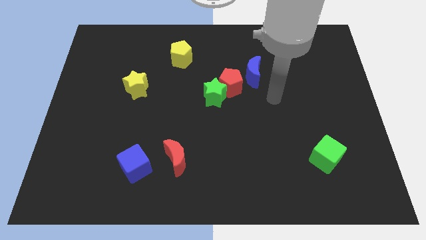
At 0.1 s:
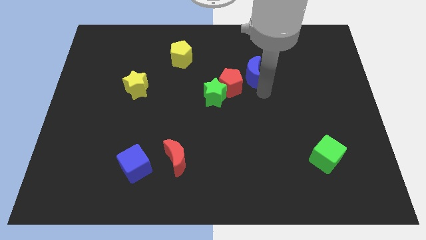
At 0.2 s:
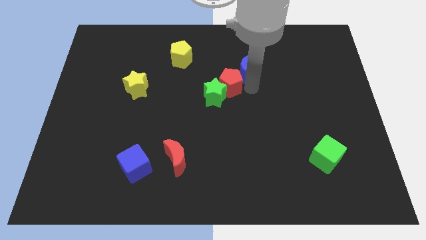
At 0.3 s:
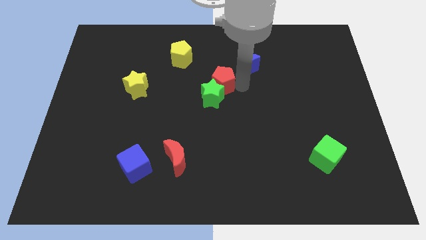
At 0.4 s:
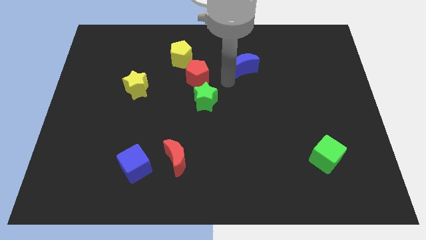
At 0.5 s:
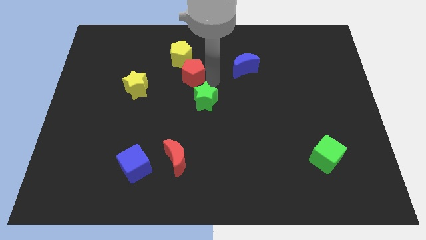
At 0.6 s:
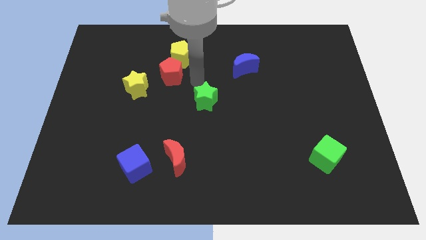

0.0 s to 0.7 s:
separate the green star from the red pentagon

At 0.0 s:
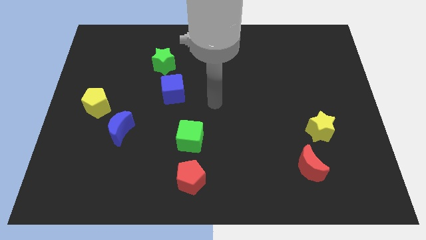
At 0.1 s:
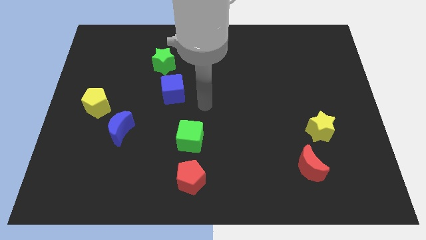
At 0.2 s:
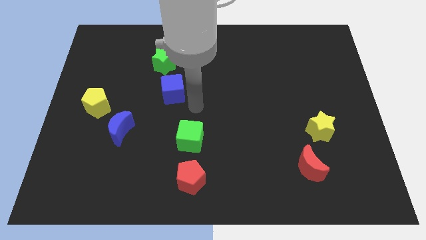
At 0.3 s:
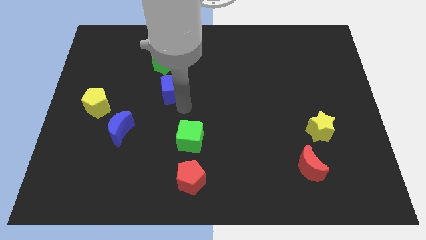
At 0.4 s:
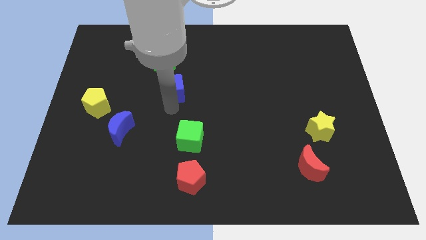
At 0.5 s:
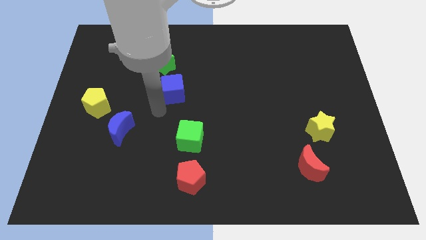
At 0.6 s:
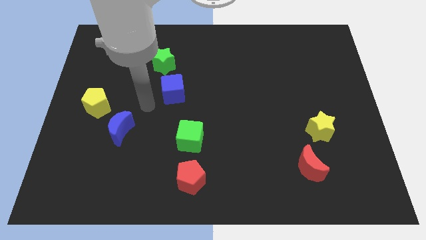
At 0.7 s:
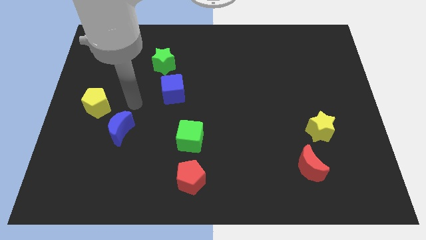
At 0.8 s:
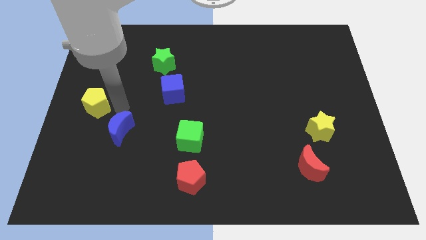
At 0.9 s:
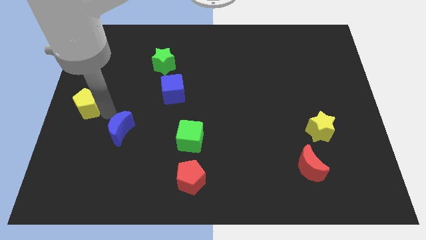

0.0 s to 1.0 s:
pull the blue moon apart from the yellow pentagon

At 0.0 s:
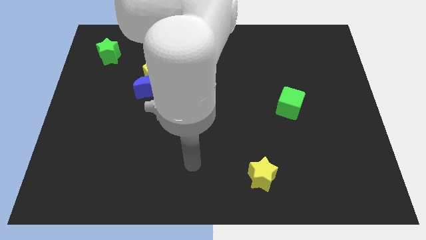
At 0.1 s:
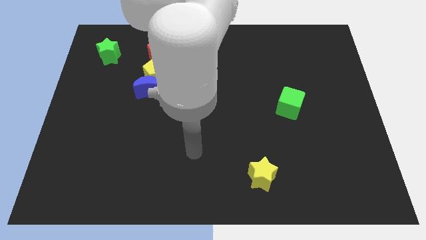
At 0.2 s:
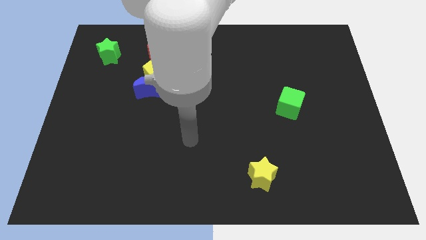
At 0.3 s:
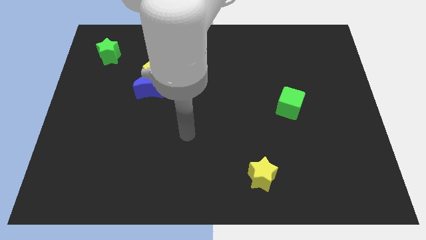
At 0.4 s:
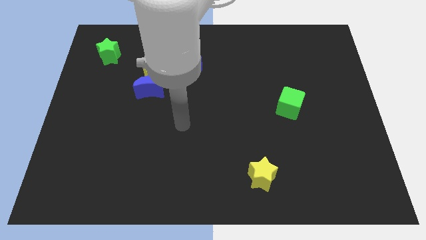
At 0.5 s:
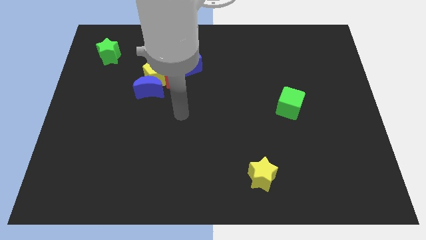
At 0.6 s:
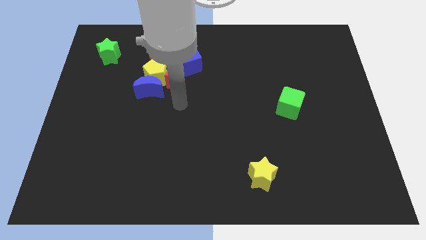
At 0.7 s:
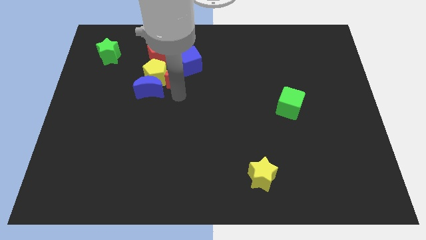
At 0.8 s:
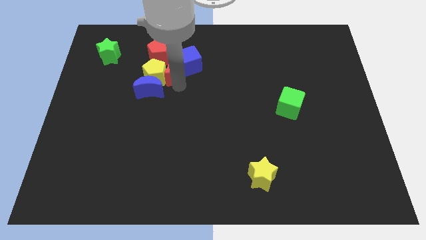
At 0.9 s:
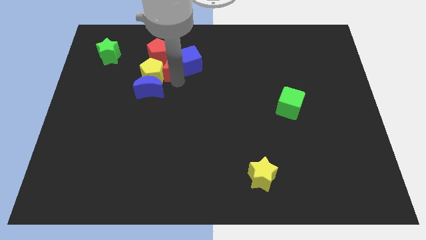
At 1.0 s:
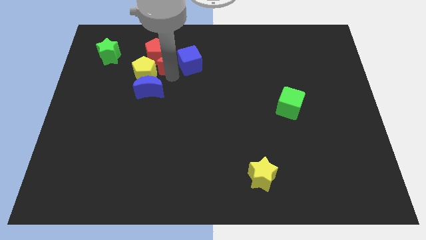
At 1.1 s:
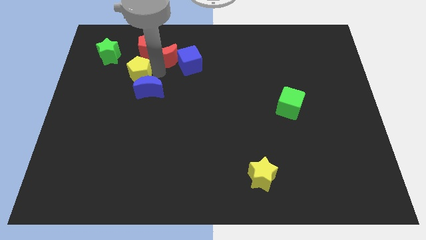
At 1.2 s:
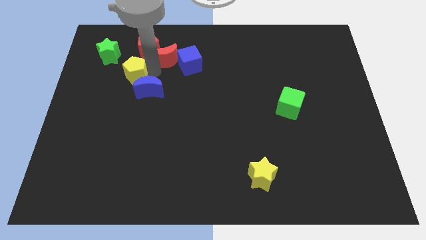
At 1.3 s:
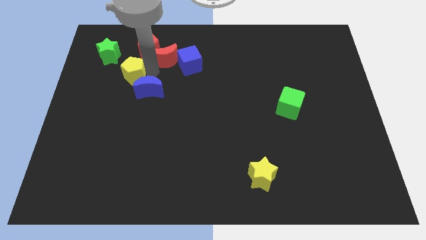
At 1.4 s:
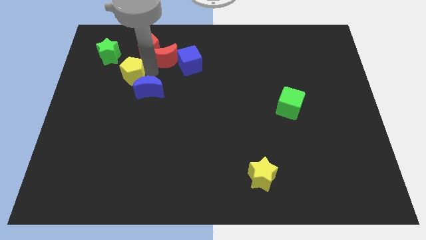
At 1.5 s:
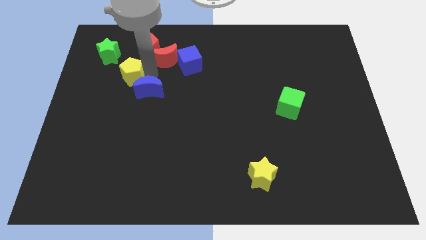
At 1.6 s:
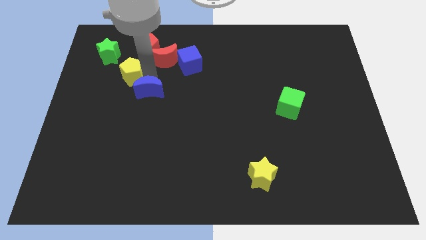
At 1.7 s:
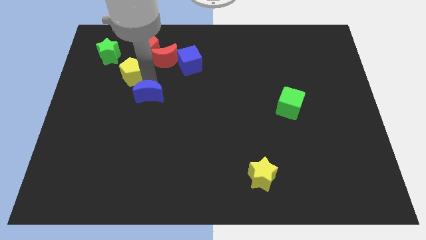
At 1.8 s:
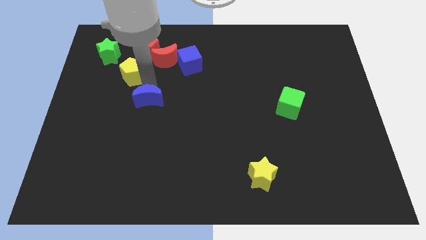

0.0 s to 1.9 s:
move the blue moon away from the yellow pentagon and red moon

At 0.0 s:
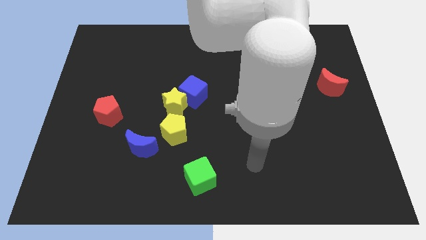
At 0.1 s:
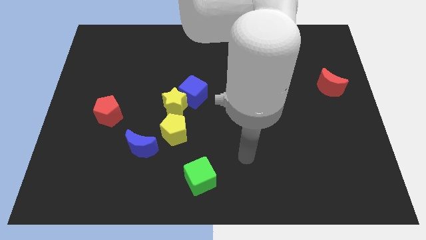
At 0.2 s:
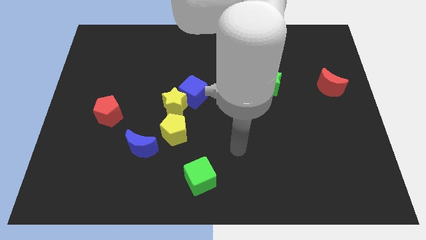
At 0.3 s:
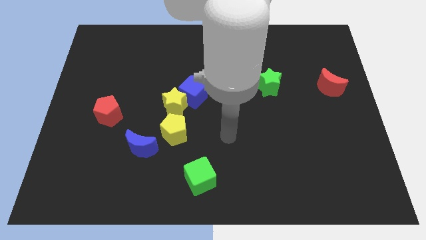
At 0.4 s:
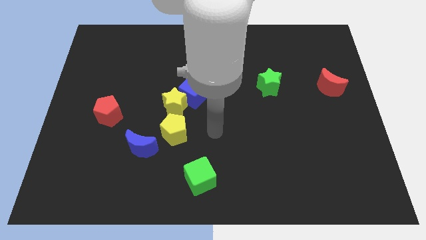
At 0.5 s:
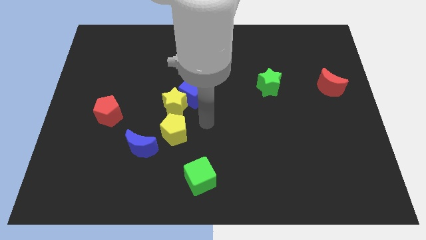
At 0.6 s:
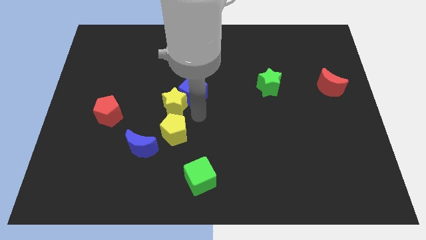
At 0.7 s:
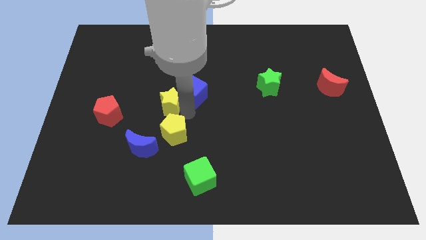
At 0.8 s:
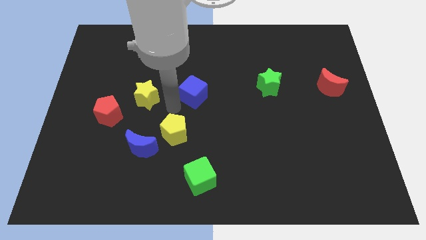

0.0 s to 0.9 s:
pull the blue cube apart from the yellow star

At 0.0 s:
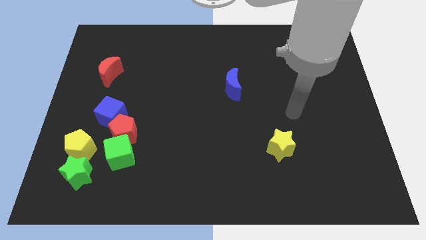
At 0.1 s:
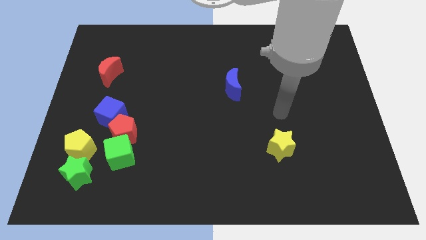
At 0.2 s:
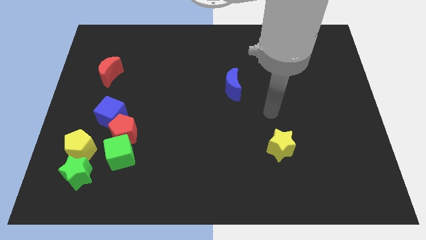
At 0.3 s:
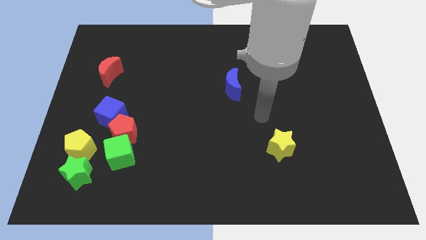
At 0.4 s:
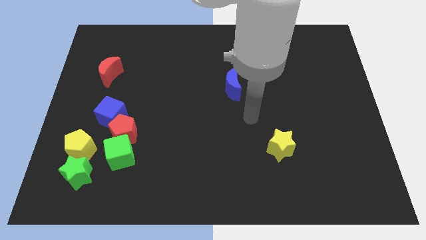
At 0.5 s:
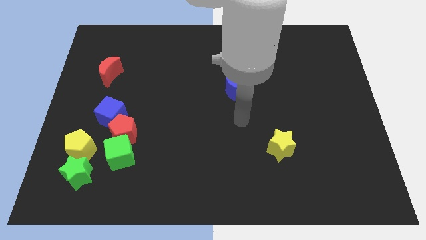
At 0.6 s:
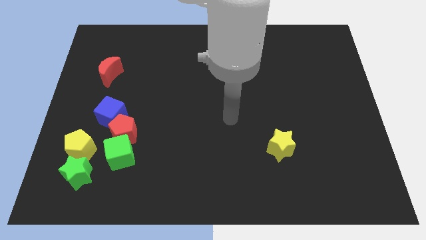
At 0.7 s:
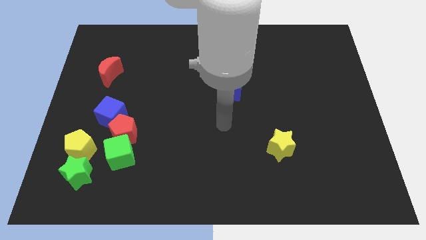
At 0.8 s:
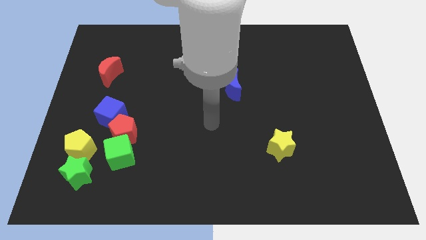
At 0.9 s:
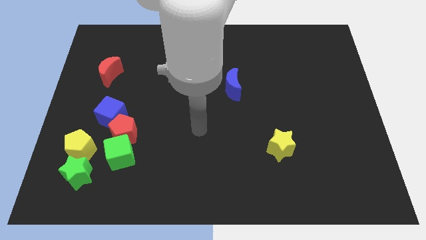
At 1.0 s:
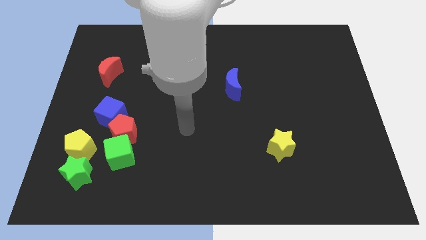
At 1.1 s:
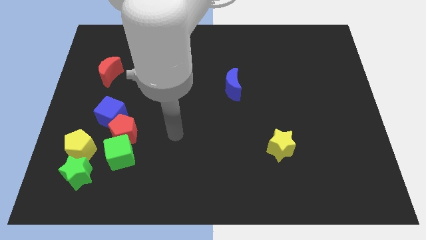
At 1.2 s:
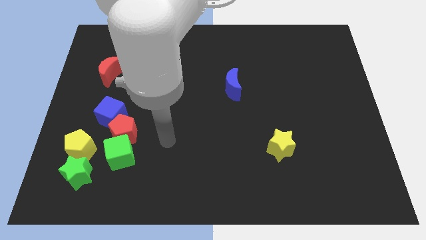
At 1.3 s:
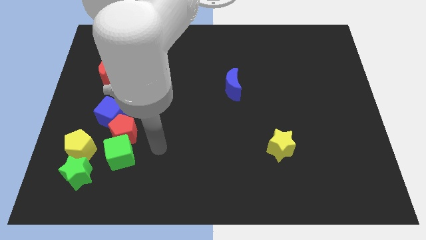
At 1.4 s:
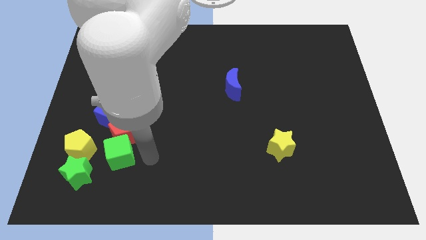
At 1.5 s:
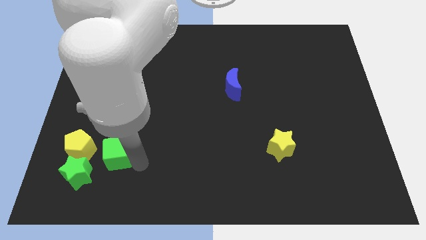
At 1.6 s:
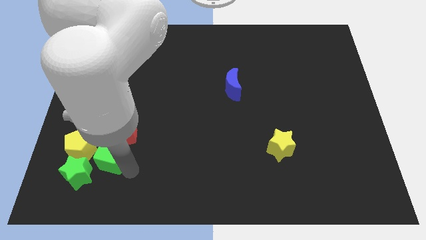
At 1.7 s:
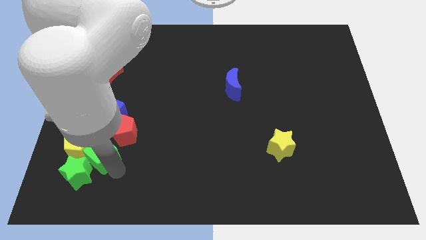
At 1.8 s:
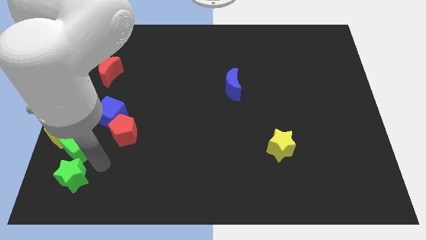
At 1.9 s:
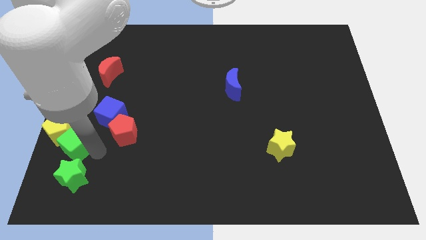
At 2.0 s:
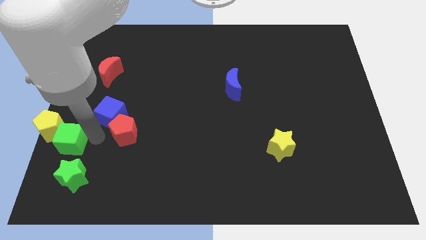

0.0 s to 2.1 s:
pull the red pentagon apart from the group

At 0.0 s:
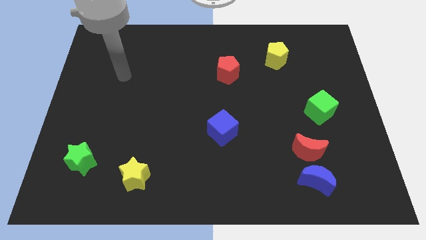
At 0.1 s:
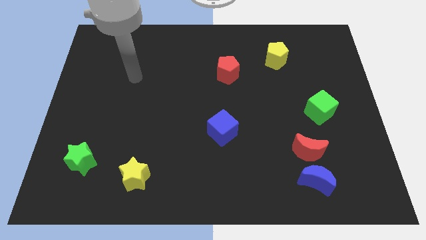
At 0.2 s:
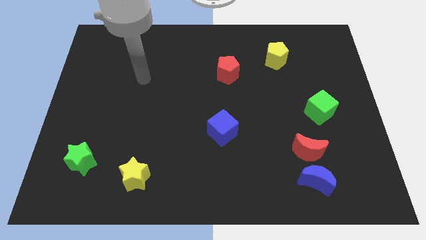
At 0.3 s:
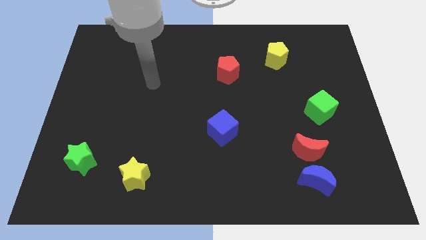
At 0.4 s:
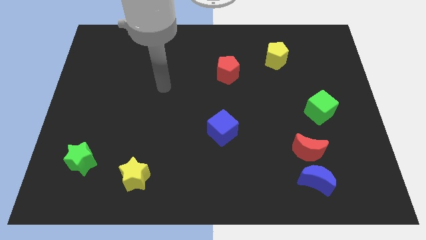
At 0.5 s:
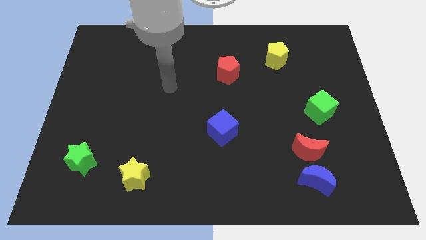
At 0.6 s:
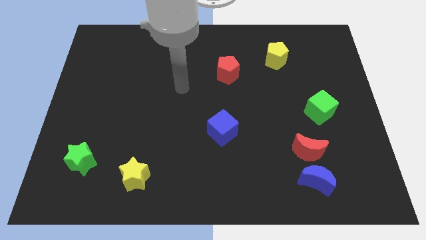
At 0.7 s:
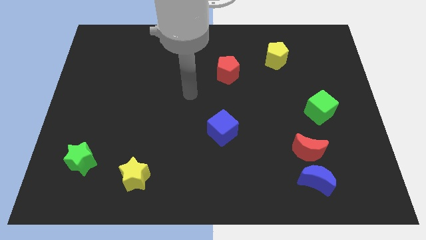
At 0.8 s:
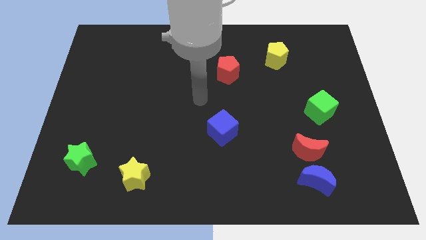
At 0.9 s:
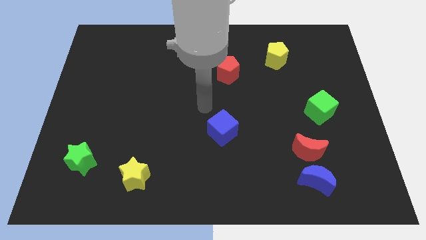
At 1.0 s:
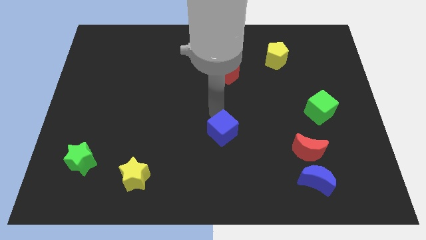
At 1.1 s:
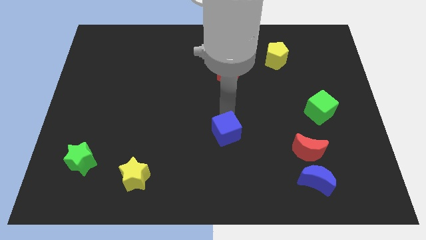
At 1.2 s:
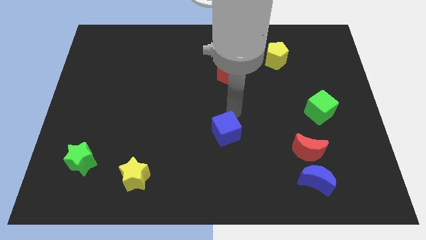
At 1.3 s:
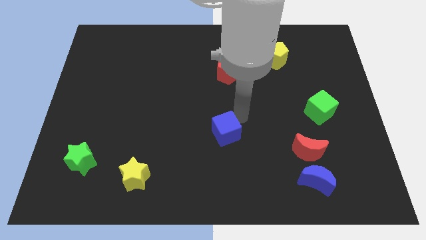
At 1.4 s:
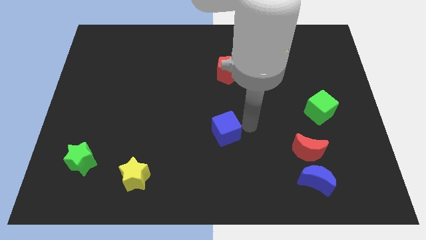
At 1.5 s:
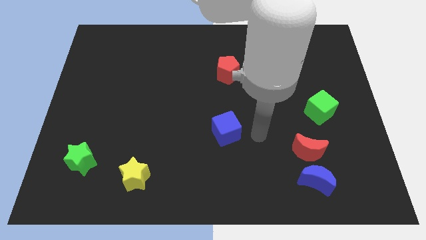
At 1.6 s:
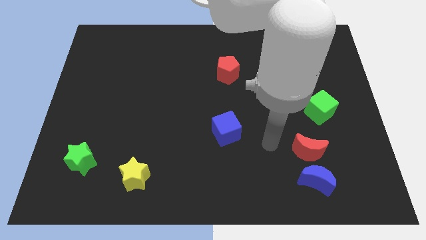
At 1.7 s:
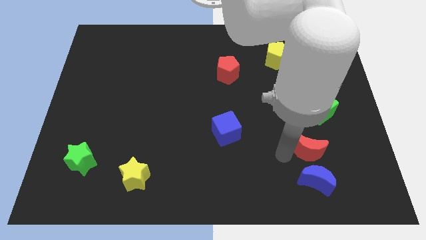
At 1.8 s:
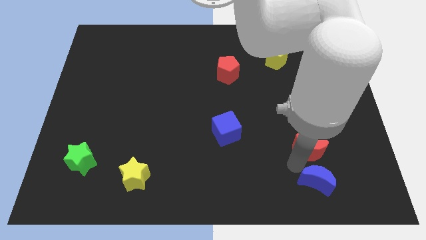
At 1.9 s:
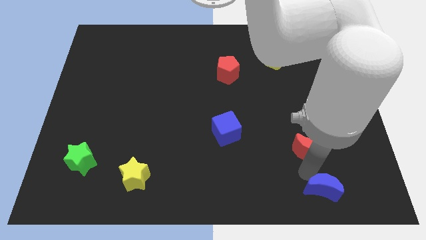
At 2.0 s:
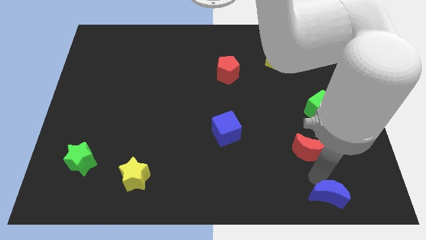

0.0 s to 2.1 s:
move the red moon away from the blue moon

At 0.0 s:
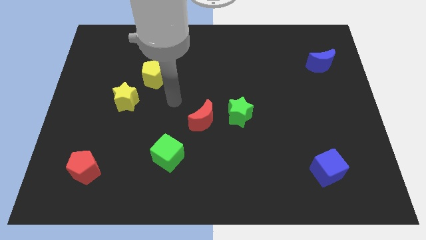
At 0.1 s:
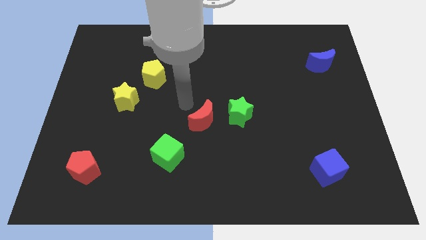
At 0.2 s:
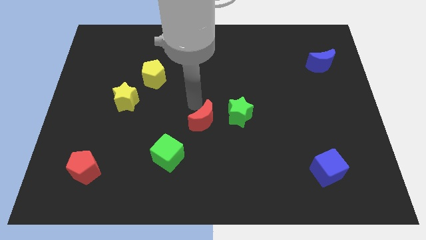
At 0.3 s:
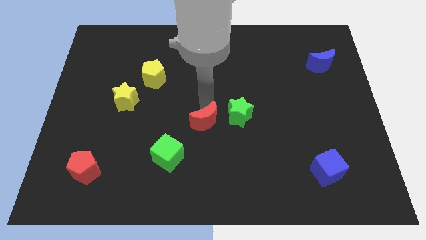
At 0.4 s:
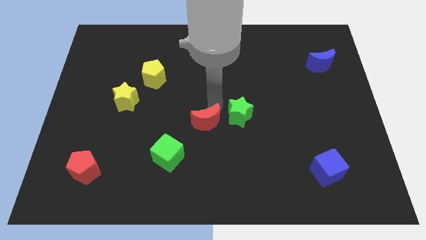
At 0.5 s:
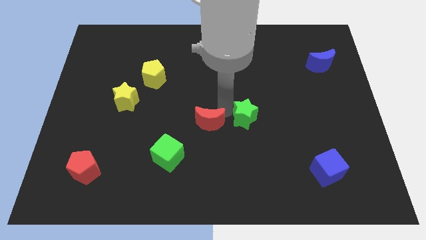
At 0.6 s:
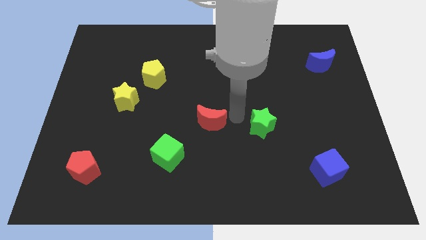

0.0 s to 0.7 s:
move the red moon away from the green star
